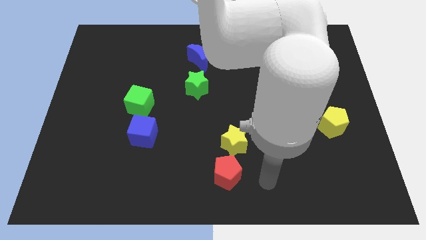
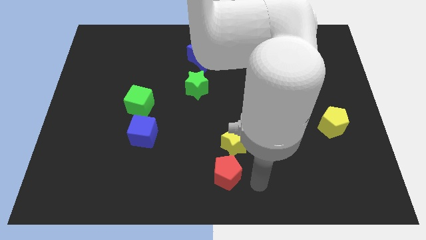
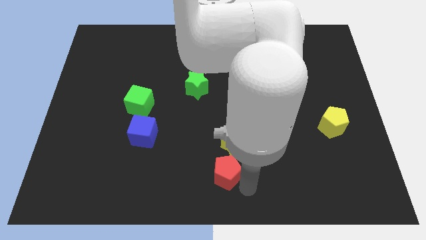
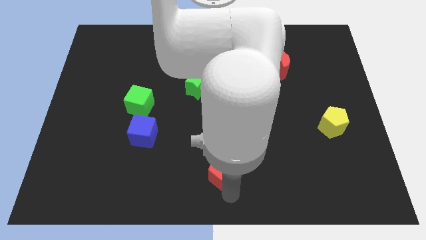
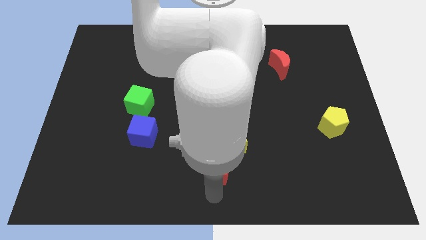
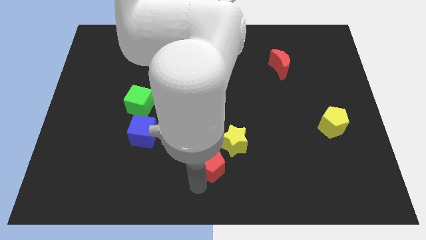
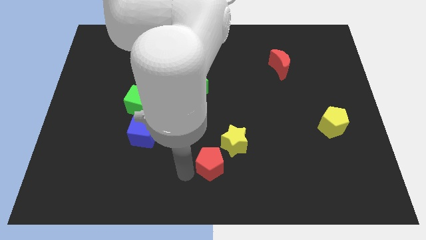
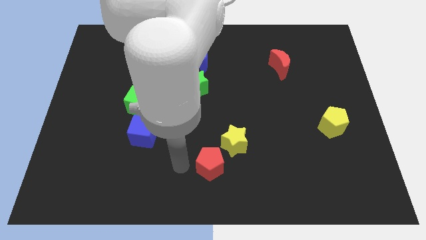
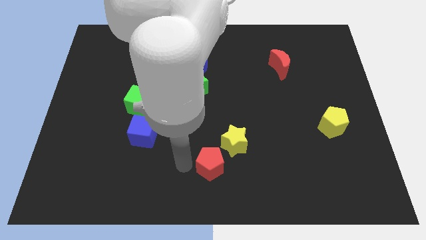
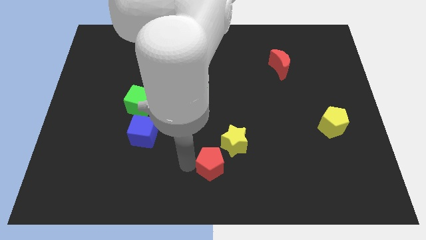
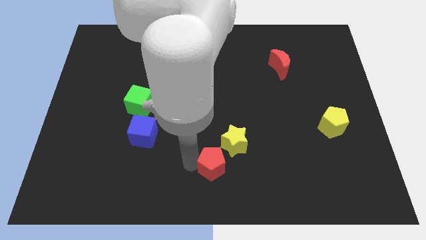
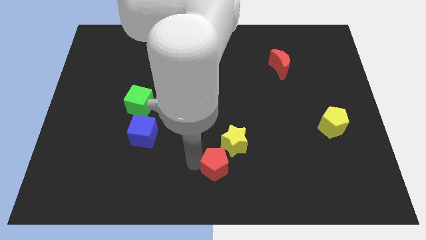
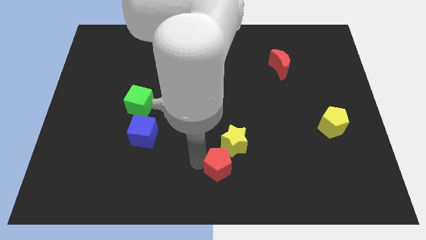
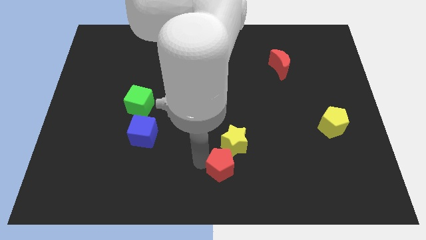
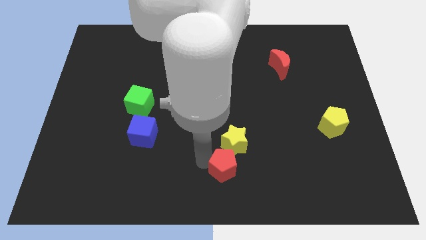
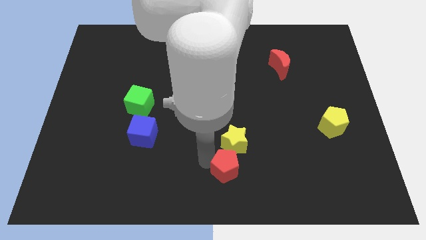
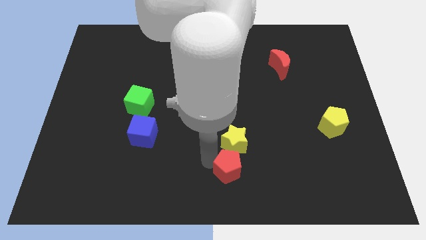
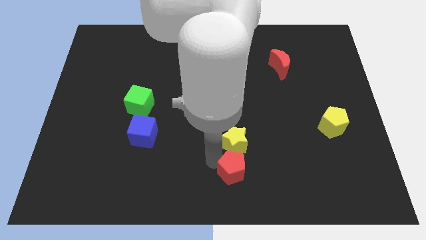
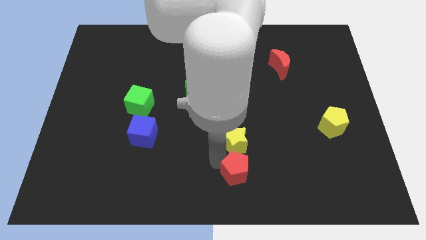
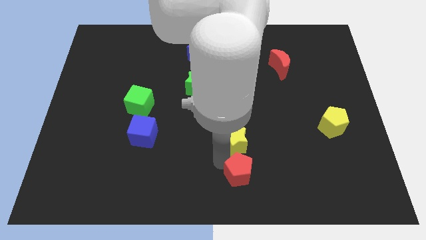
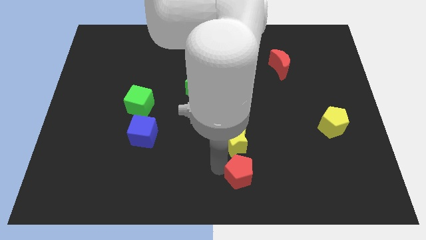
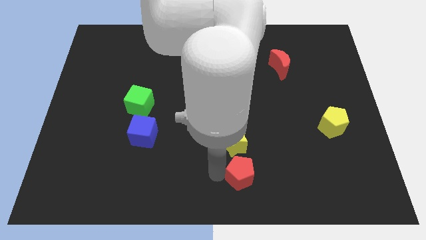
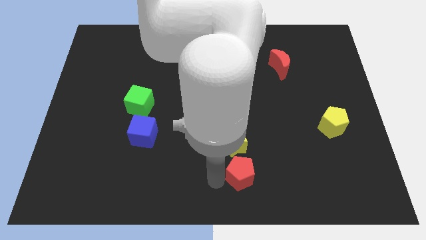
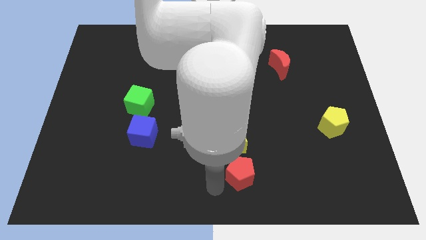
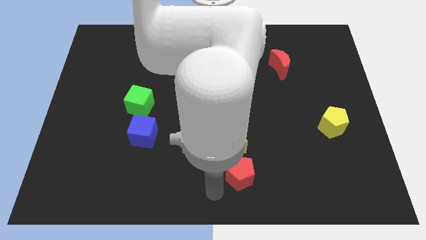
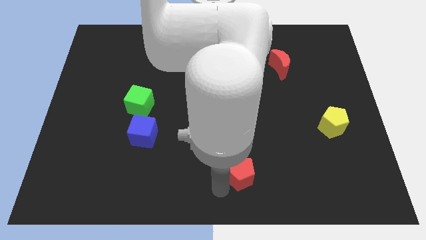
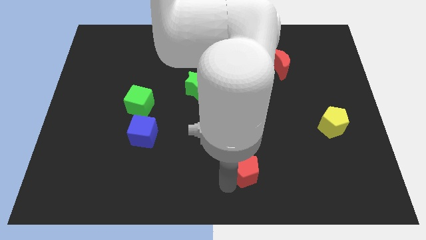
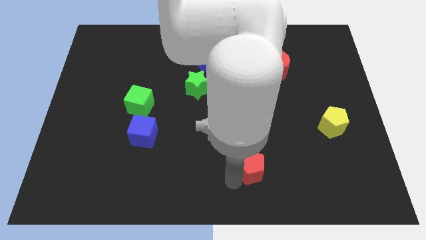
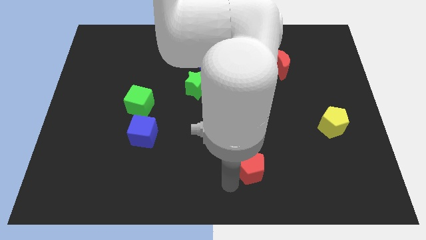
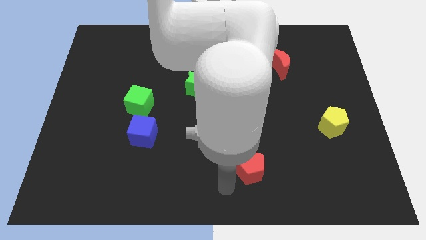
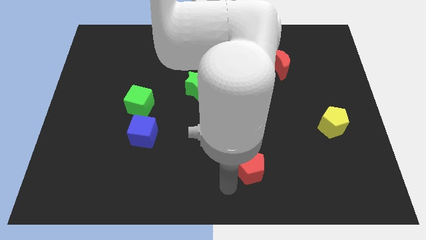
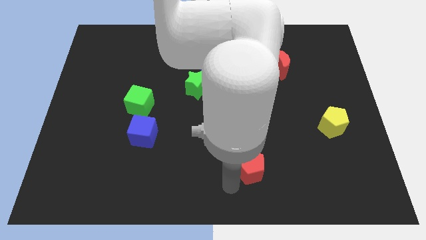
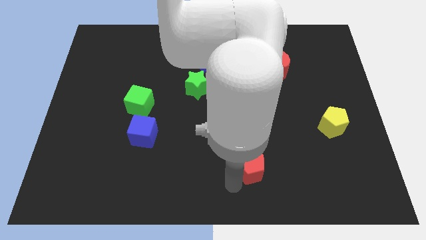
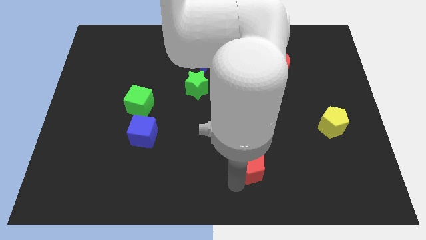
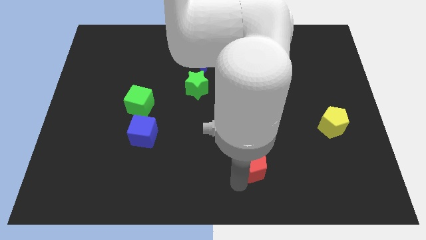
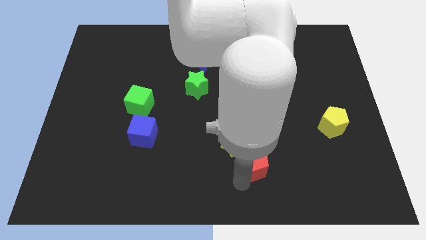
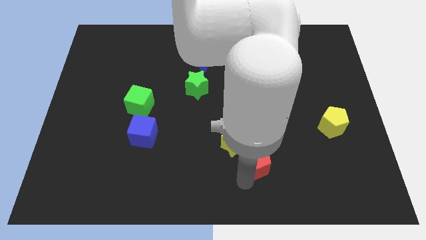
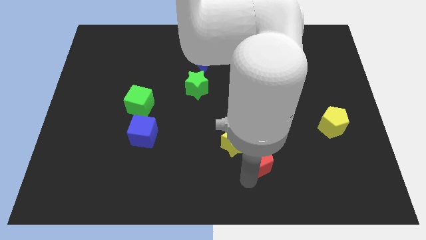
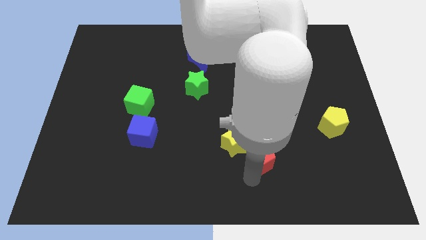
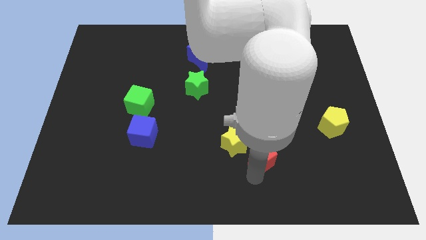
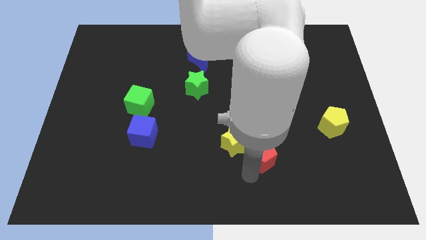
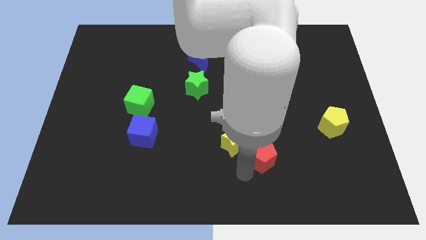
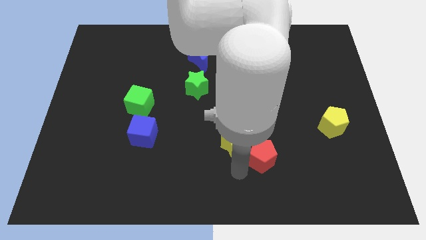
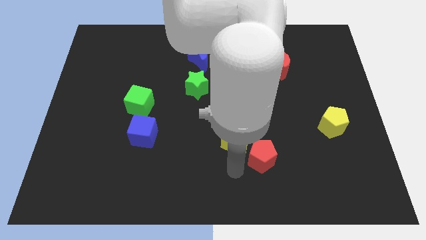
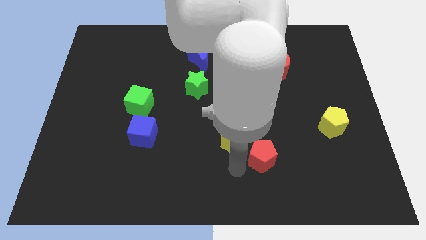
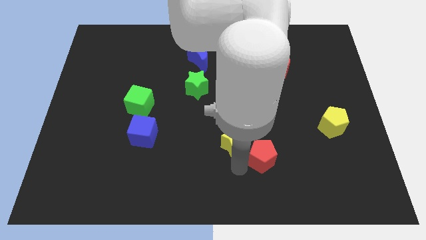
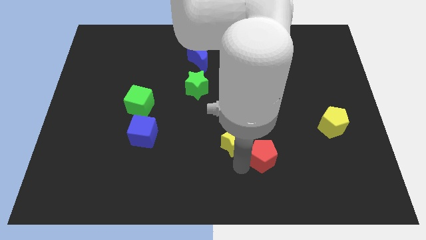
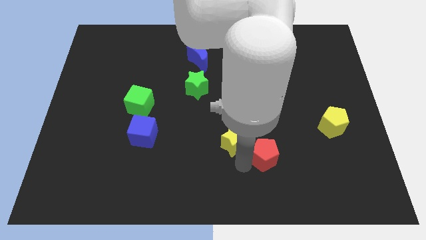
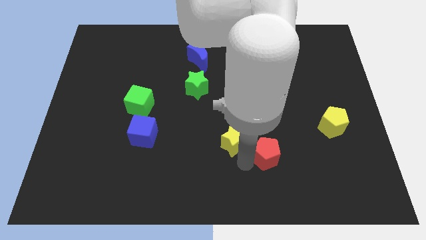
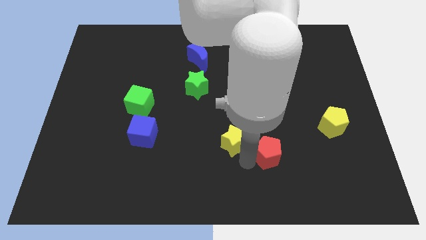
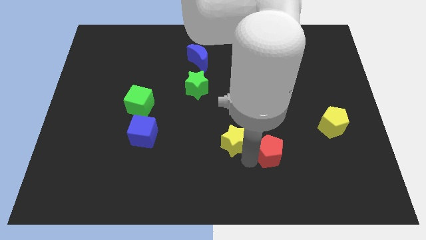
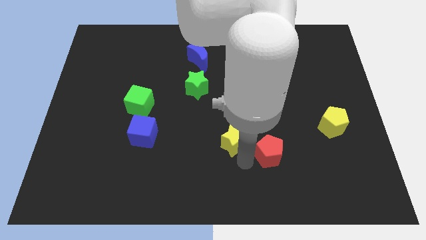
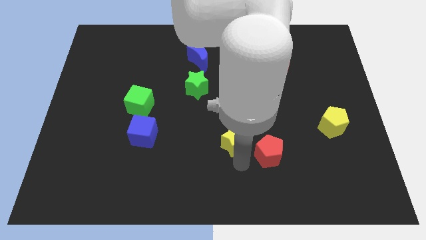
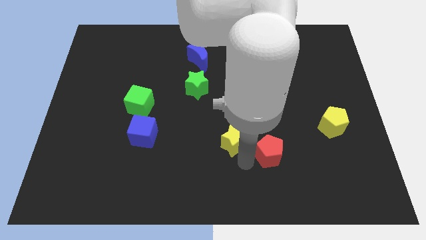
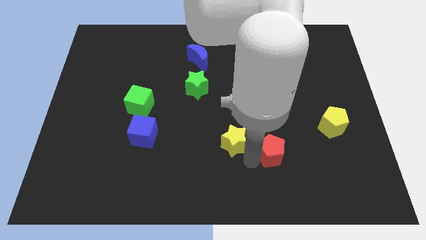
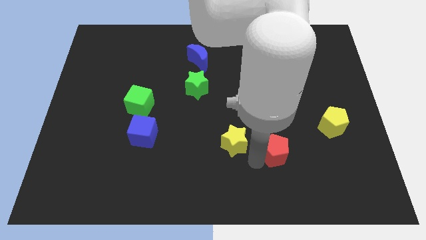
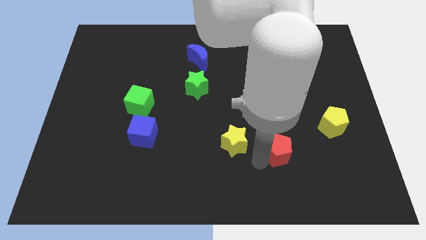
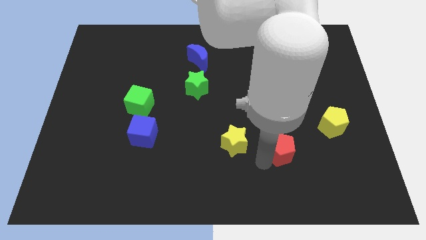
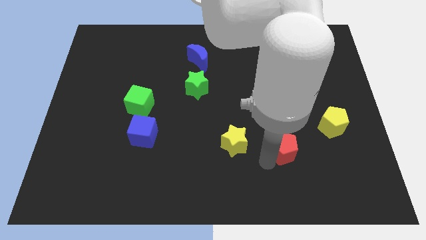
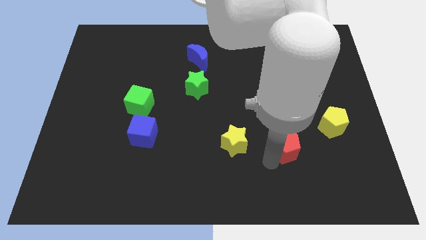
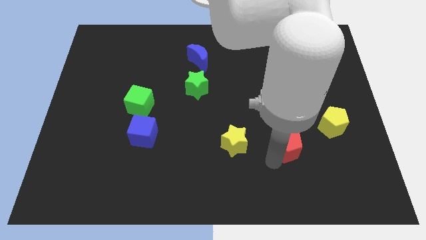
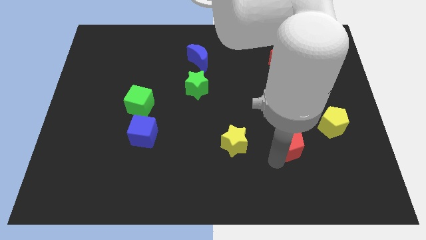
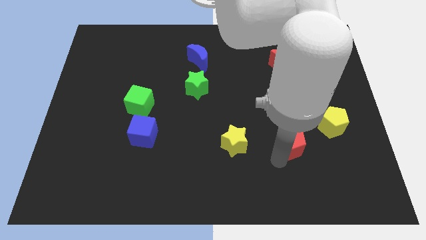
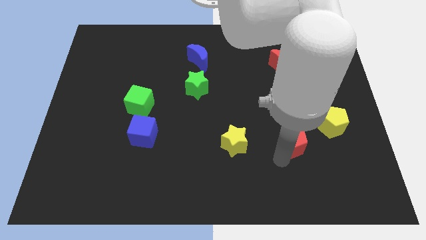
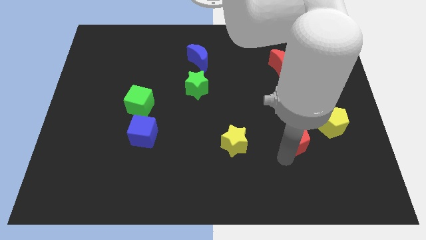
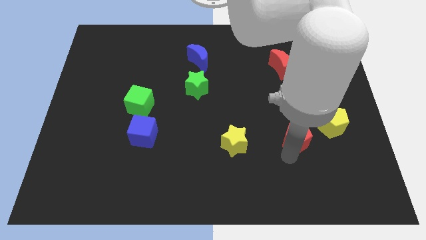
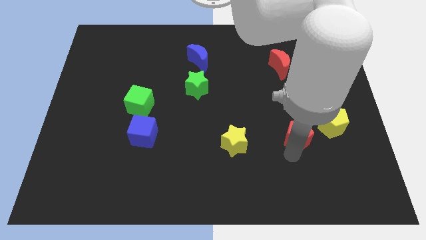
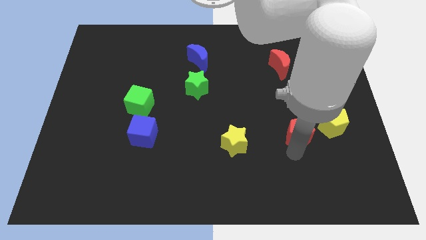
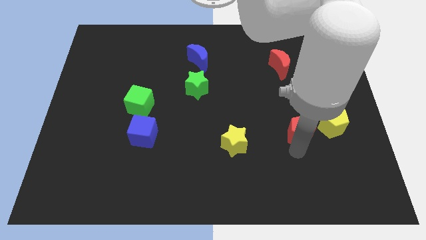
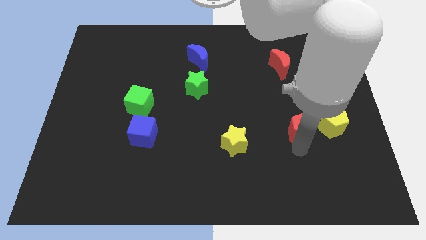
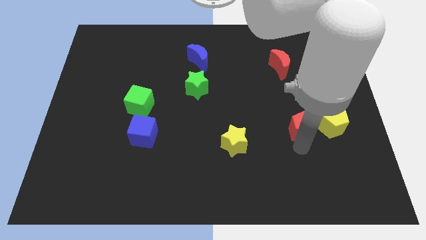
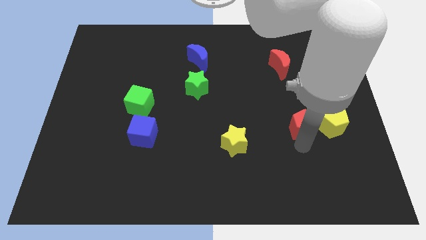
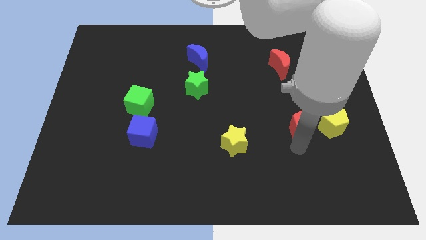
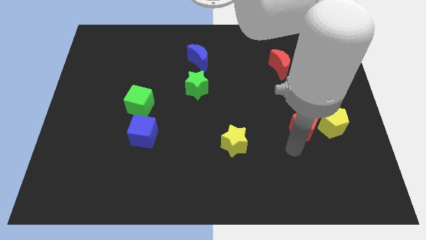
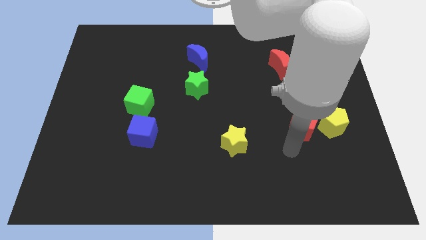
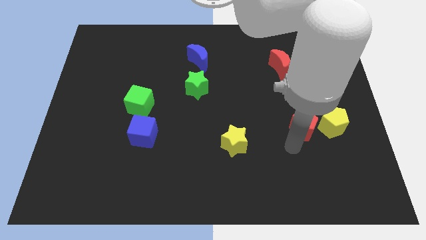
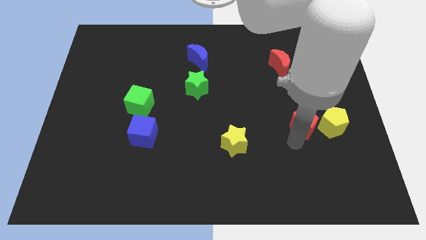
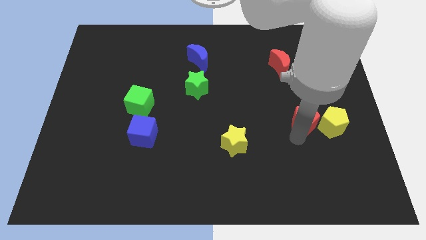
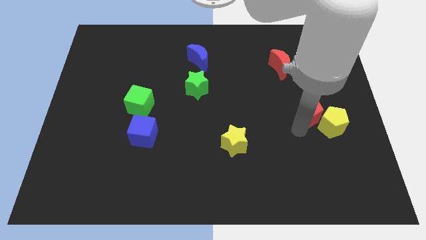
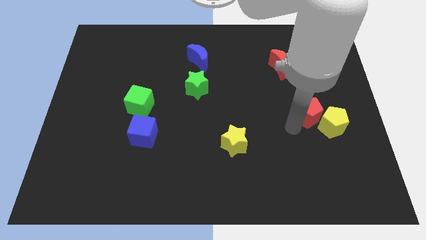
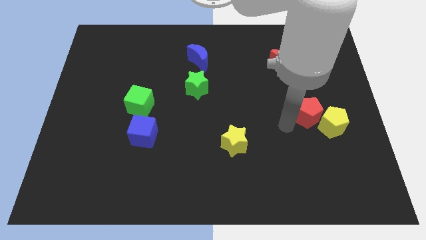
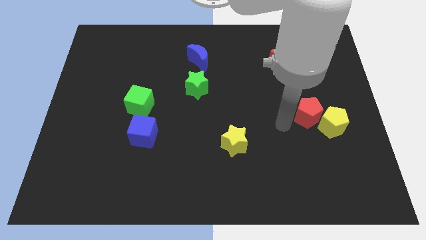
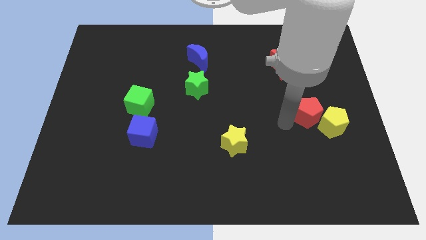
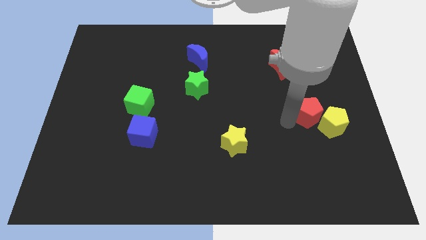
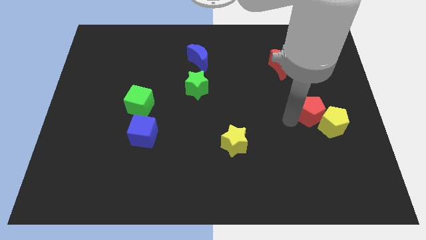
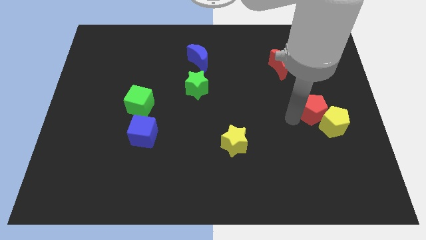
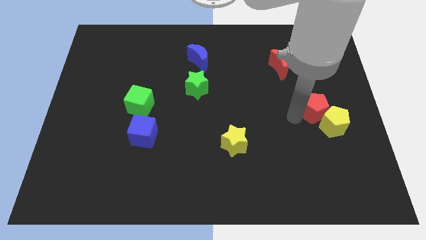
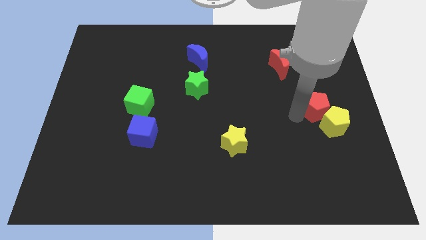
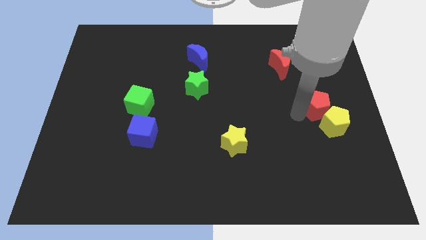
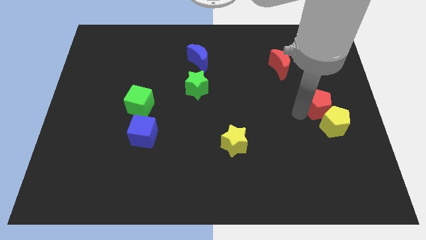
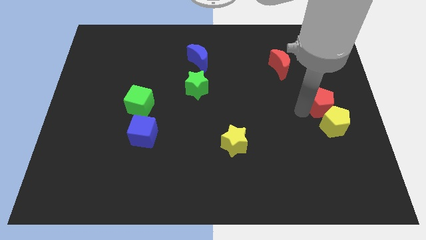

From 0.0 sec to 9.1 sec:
move the red pentagon to the right side of the board
